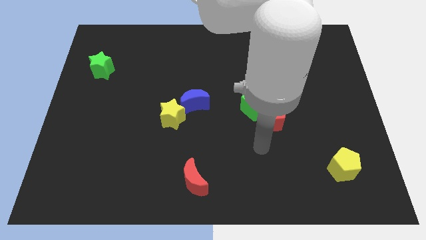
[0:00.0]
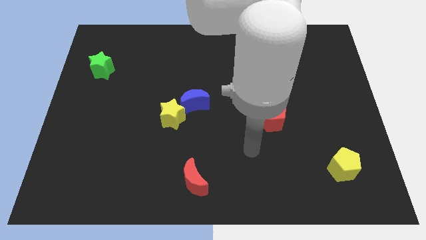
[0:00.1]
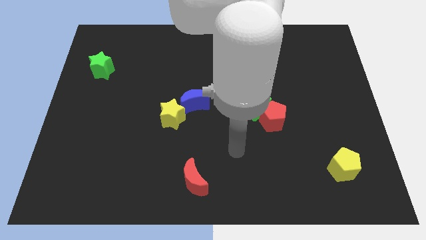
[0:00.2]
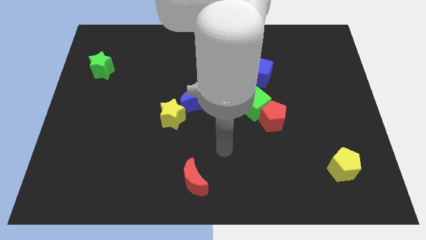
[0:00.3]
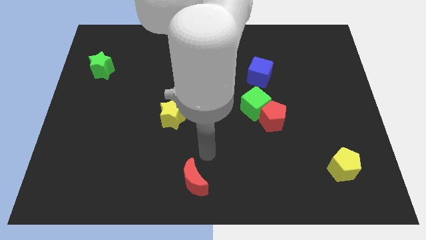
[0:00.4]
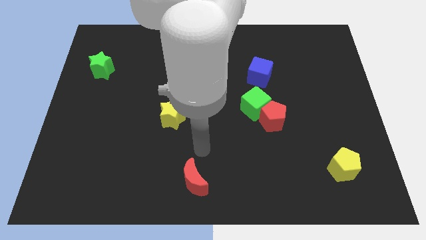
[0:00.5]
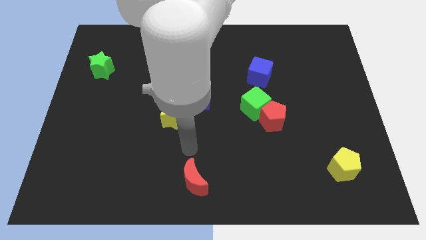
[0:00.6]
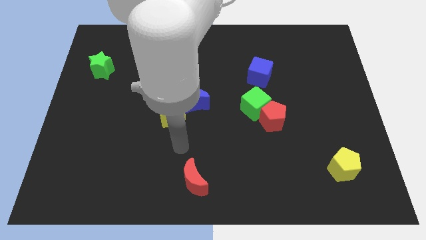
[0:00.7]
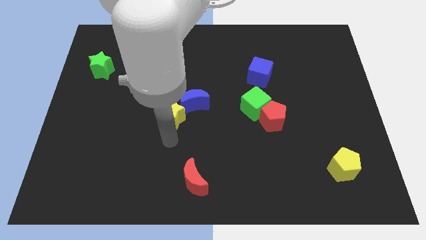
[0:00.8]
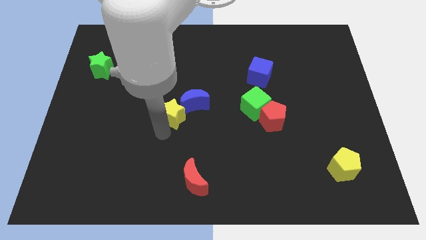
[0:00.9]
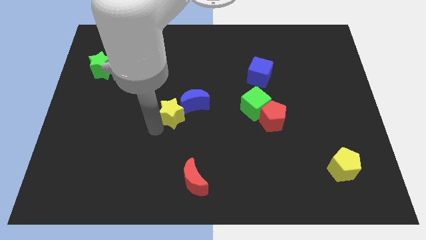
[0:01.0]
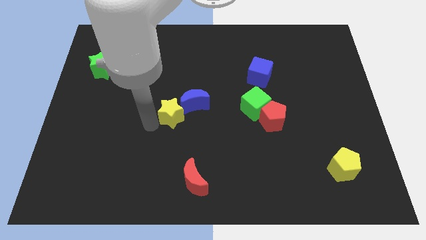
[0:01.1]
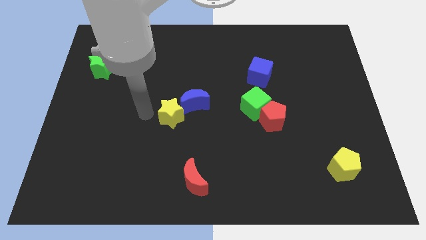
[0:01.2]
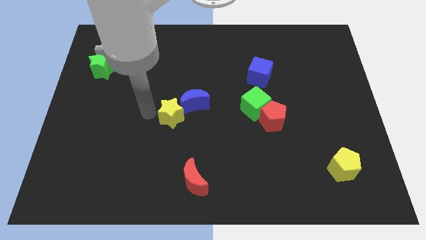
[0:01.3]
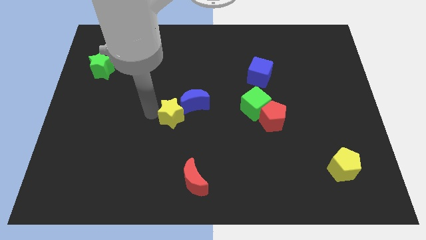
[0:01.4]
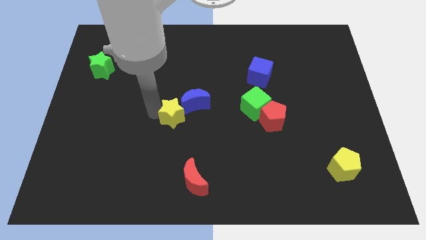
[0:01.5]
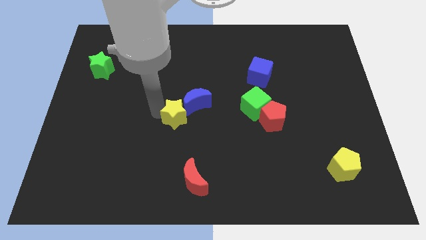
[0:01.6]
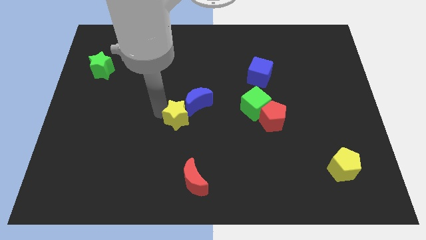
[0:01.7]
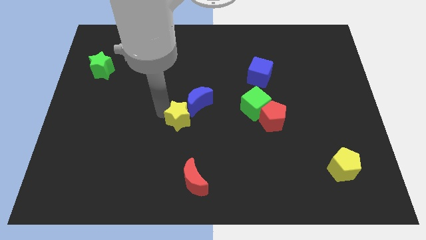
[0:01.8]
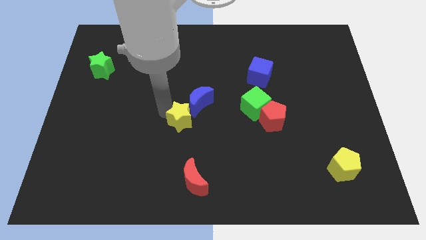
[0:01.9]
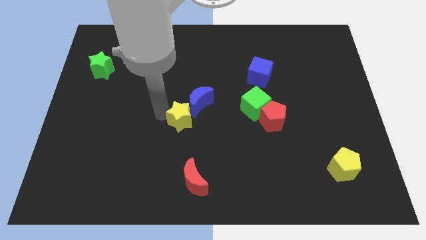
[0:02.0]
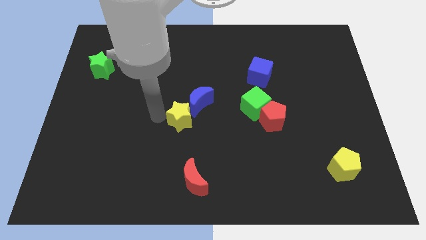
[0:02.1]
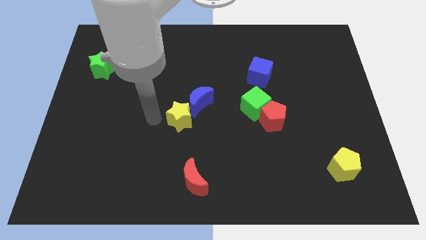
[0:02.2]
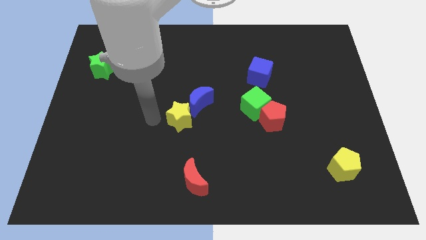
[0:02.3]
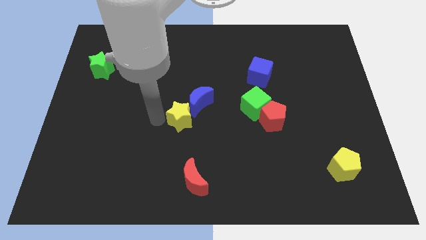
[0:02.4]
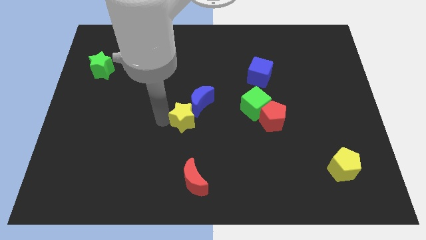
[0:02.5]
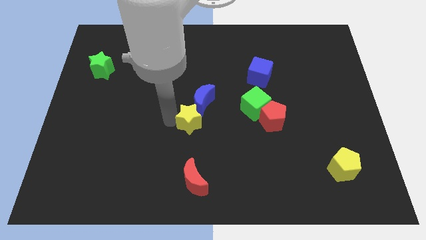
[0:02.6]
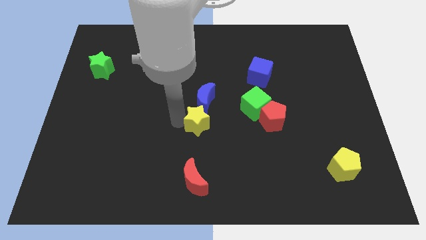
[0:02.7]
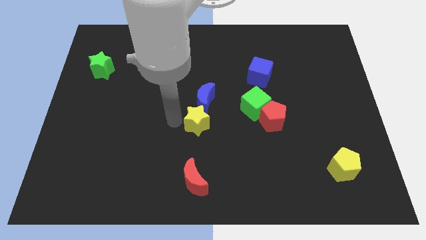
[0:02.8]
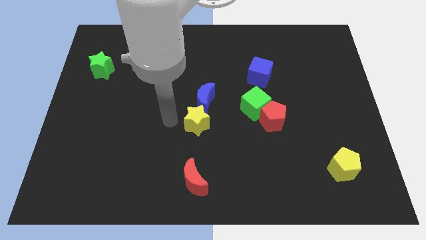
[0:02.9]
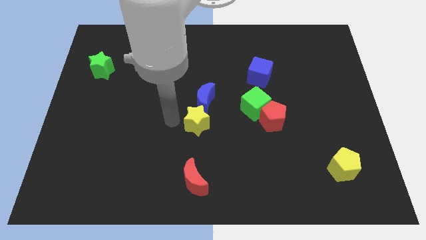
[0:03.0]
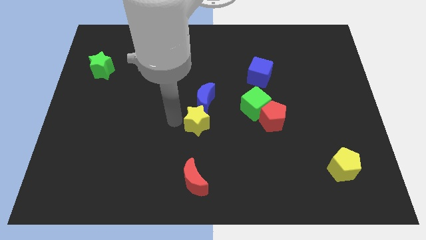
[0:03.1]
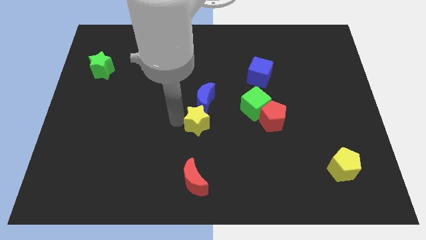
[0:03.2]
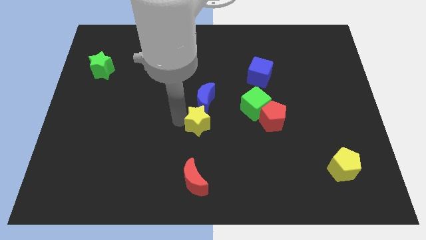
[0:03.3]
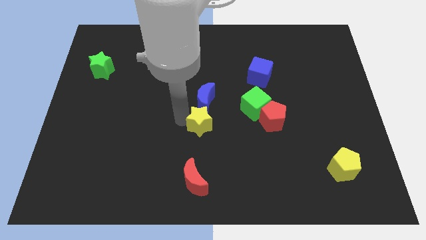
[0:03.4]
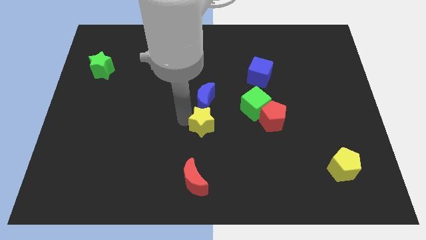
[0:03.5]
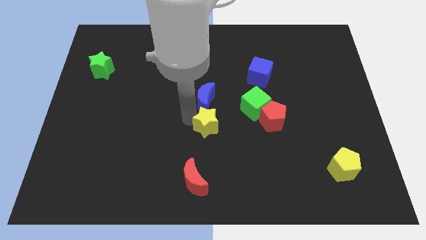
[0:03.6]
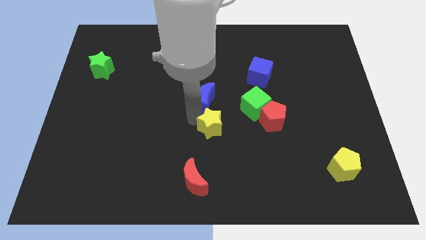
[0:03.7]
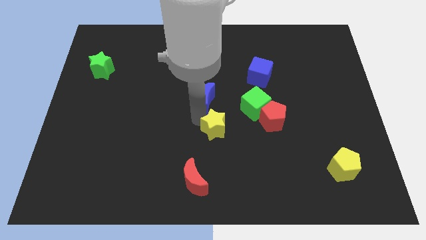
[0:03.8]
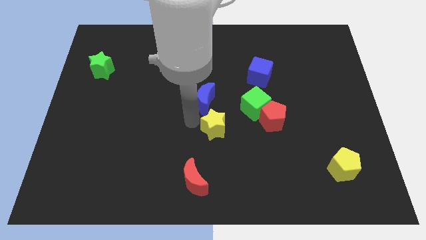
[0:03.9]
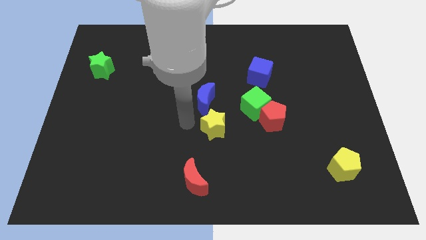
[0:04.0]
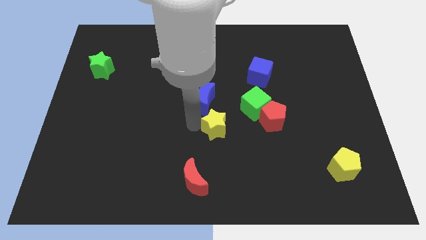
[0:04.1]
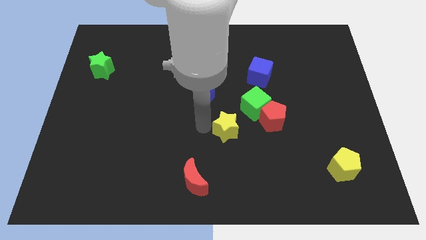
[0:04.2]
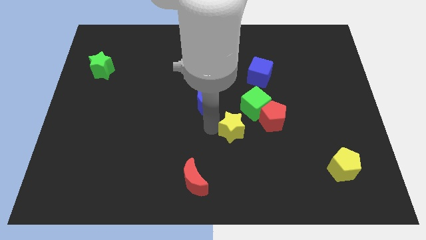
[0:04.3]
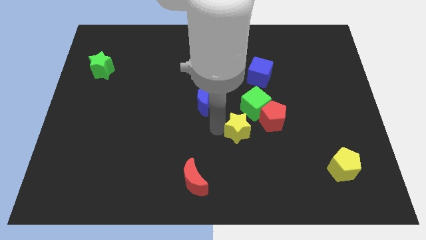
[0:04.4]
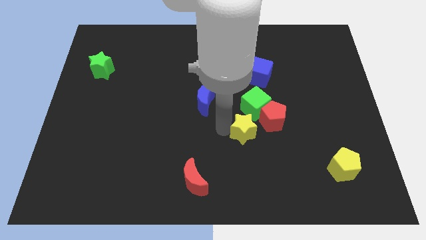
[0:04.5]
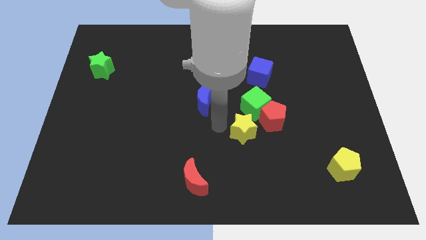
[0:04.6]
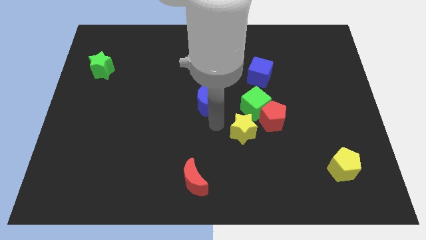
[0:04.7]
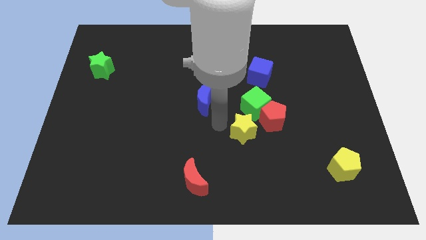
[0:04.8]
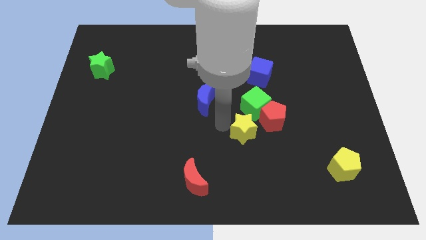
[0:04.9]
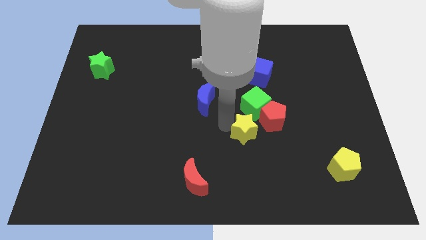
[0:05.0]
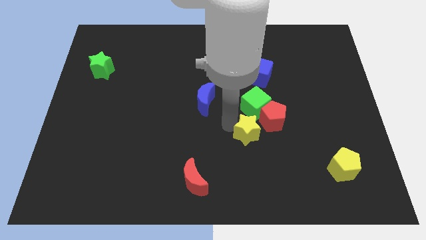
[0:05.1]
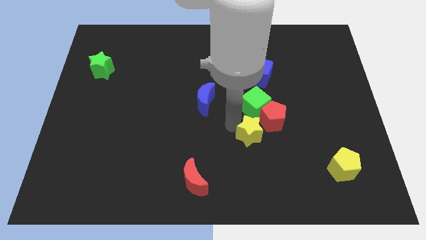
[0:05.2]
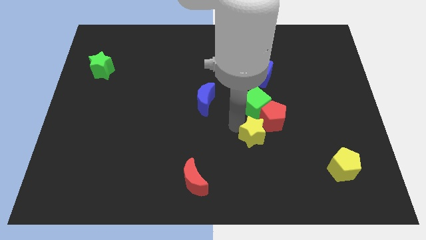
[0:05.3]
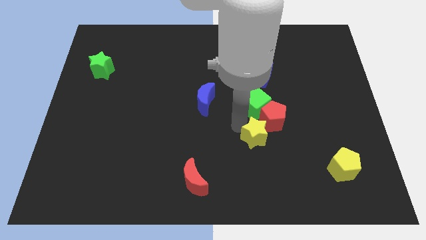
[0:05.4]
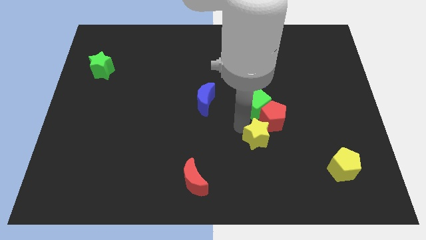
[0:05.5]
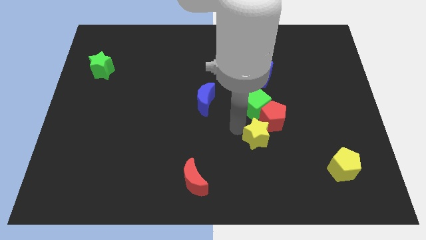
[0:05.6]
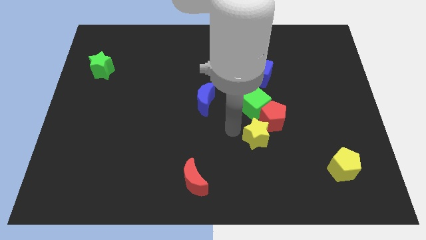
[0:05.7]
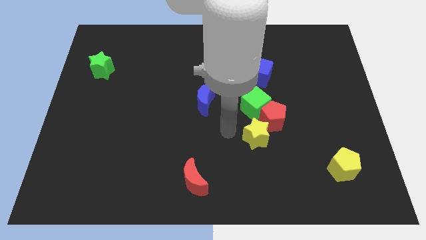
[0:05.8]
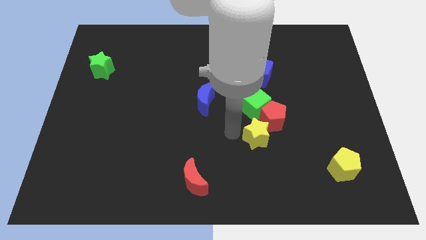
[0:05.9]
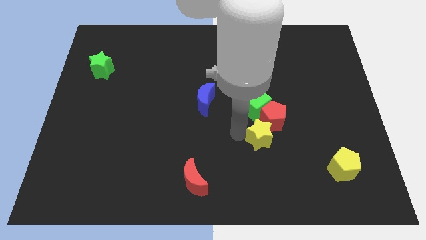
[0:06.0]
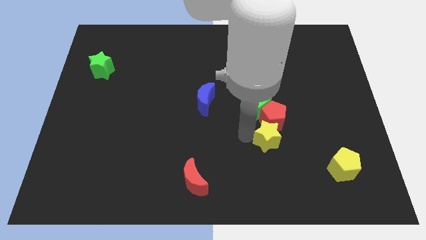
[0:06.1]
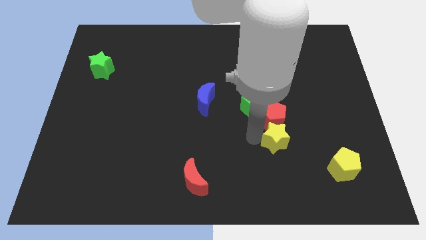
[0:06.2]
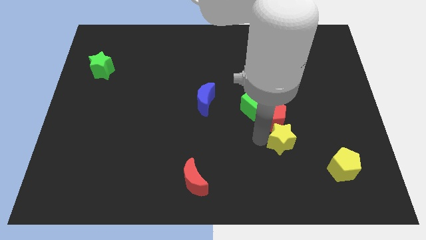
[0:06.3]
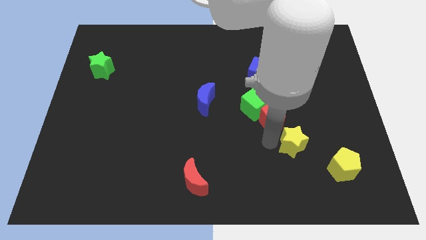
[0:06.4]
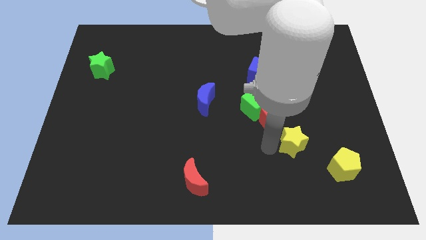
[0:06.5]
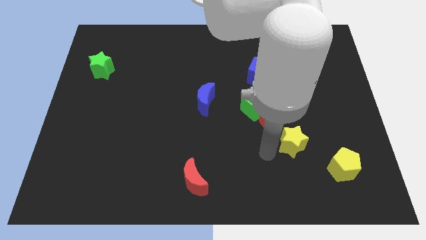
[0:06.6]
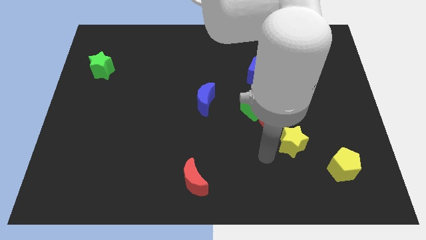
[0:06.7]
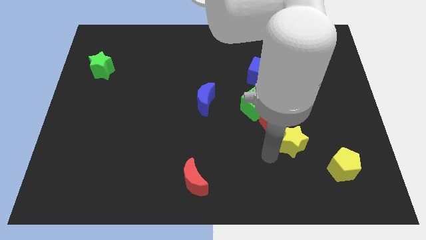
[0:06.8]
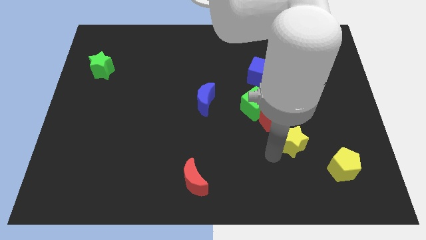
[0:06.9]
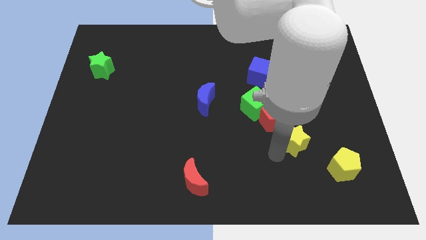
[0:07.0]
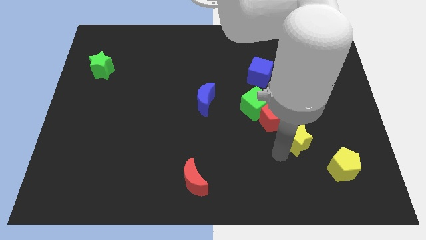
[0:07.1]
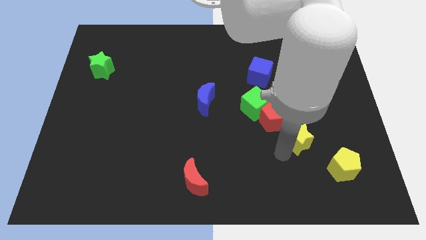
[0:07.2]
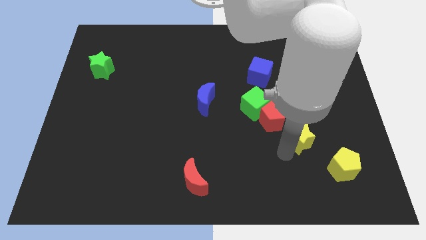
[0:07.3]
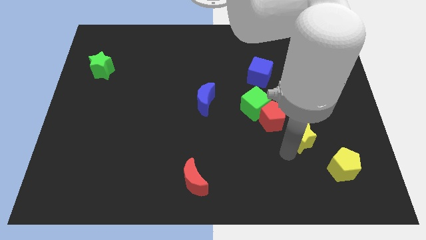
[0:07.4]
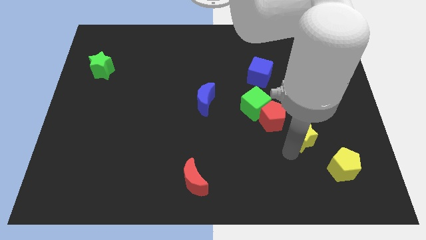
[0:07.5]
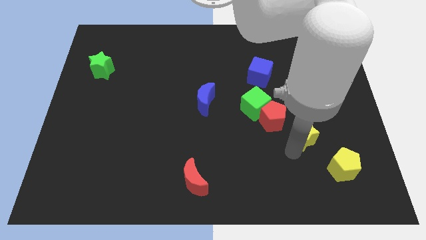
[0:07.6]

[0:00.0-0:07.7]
push the yellow star to the right of the red pentagon
